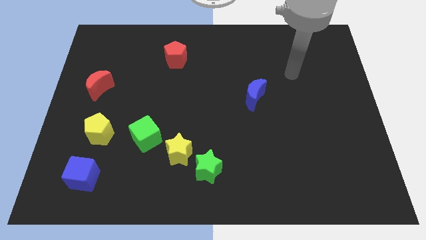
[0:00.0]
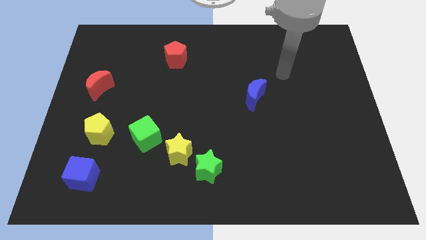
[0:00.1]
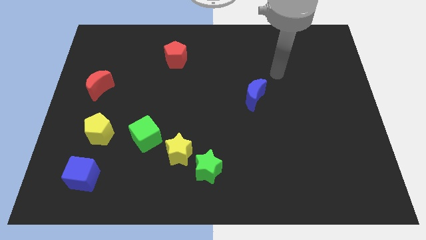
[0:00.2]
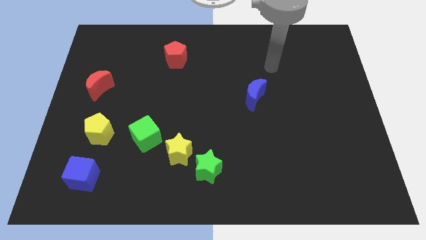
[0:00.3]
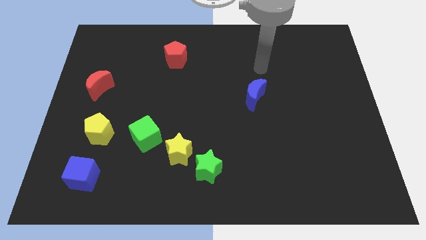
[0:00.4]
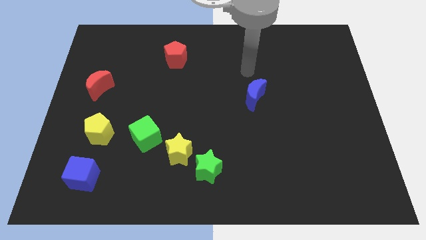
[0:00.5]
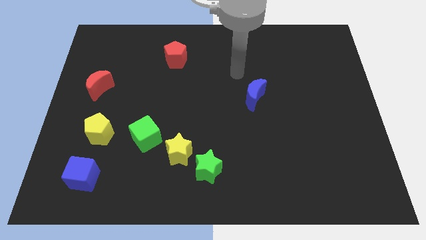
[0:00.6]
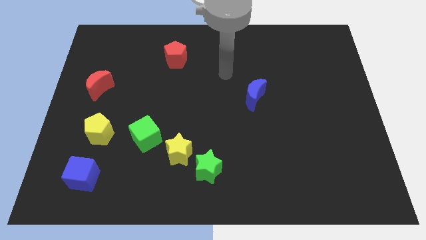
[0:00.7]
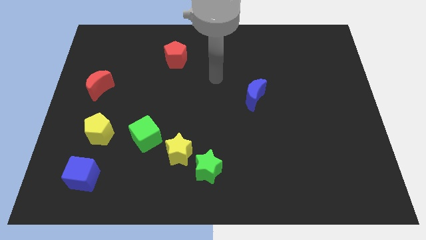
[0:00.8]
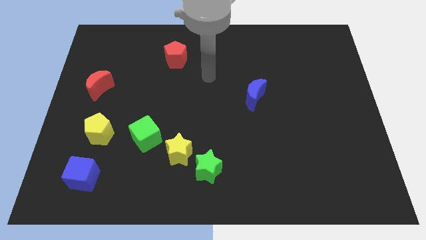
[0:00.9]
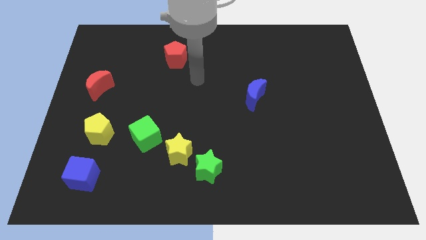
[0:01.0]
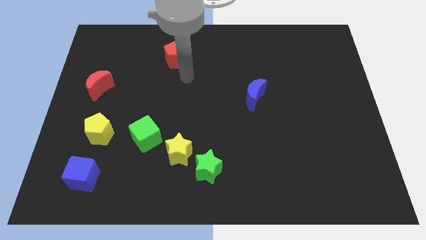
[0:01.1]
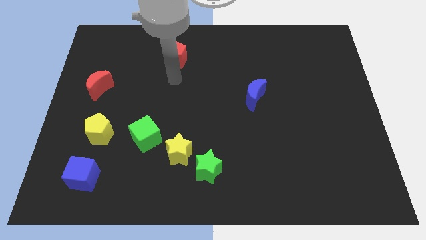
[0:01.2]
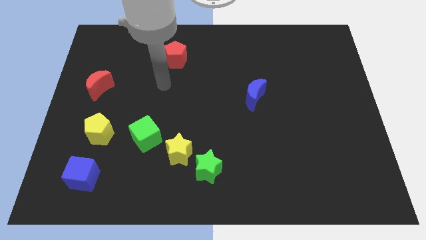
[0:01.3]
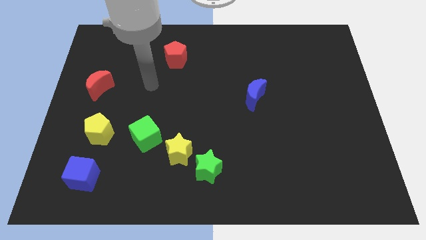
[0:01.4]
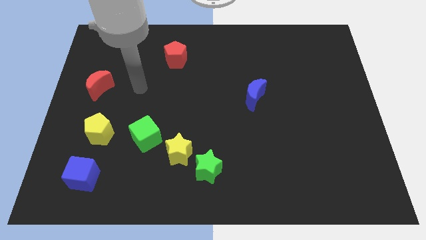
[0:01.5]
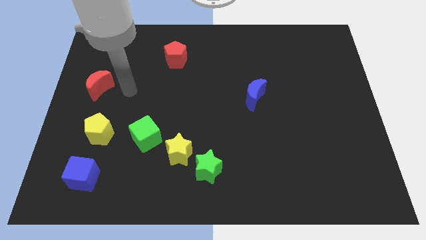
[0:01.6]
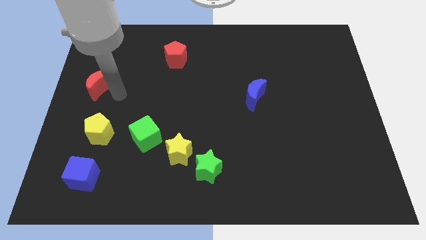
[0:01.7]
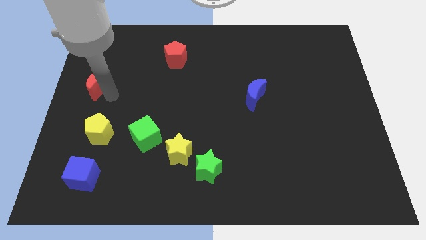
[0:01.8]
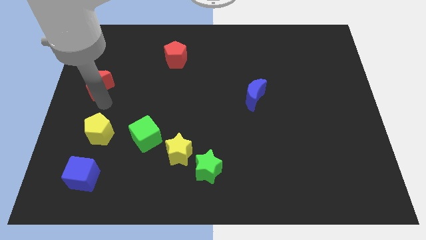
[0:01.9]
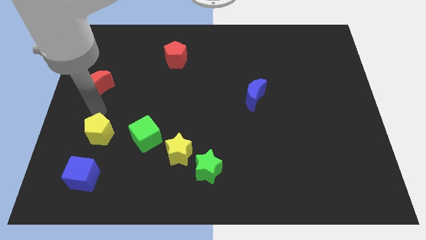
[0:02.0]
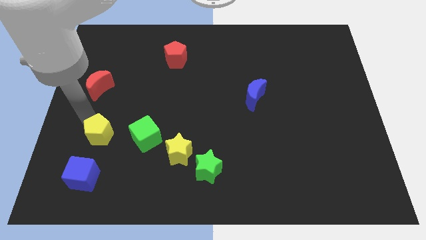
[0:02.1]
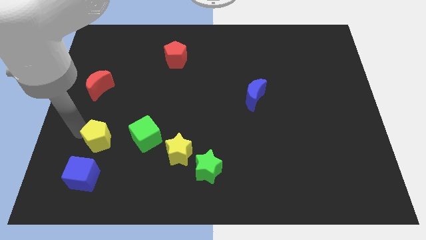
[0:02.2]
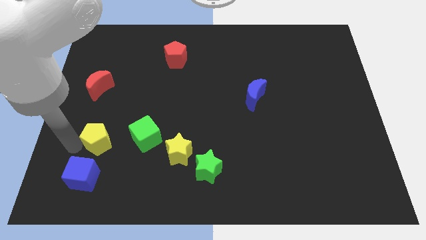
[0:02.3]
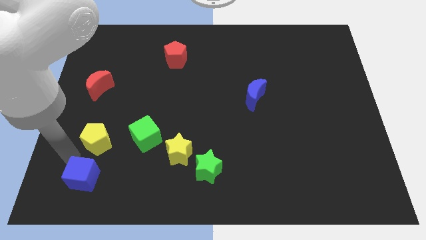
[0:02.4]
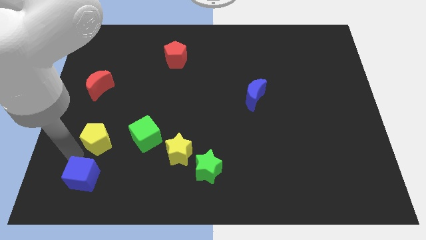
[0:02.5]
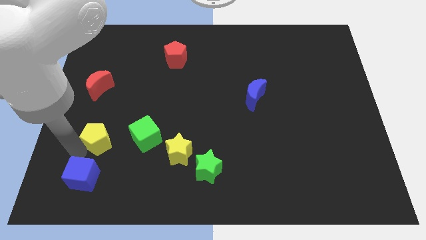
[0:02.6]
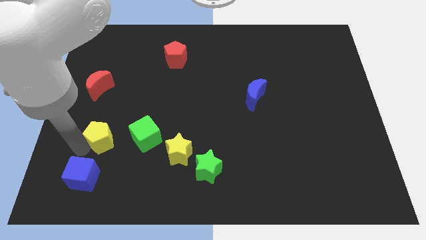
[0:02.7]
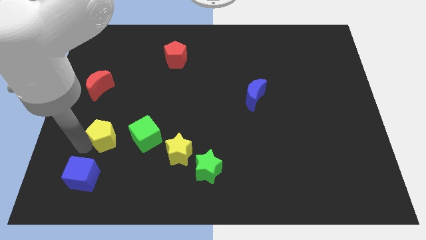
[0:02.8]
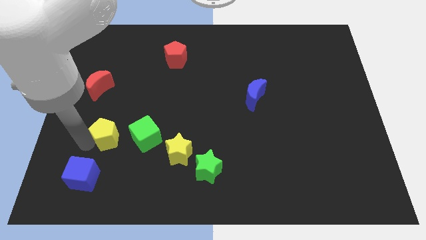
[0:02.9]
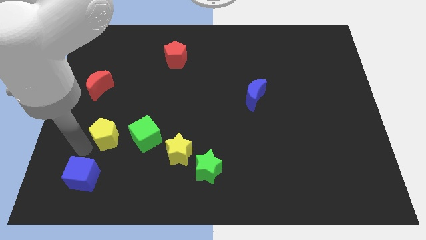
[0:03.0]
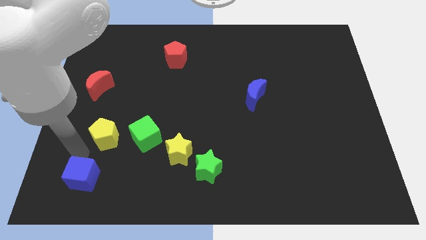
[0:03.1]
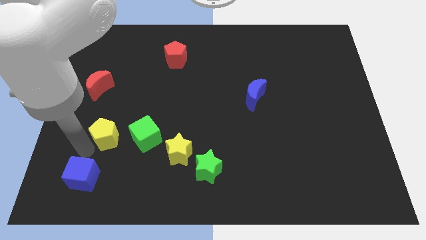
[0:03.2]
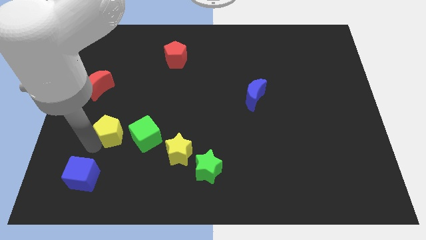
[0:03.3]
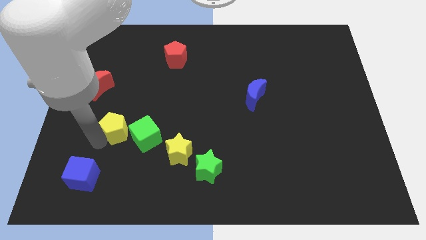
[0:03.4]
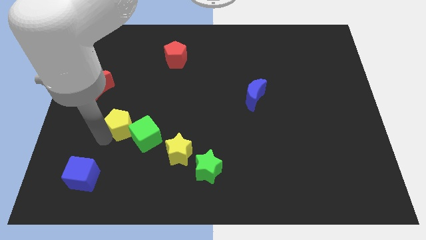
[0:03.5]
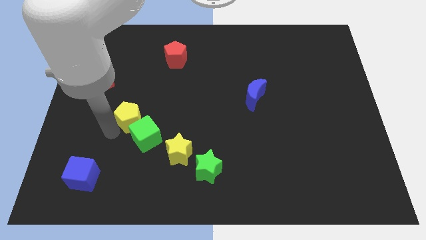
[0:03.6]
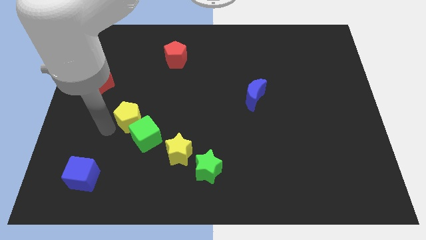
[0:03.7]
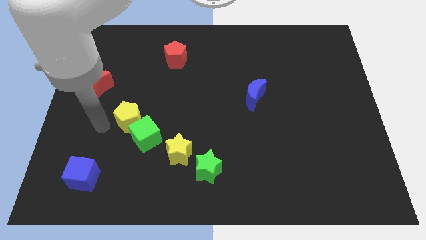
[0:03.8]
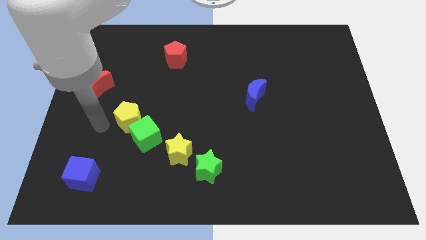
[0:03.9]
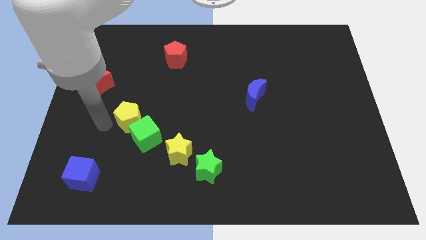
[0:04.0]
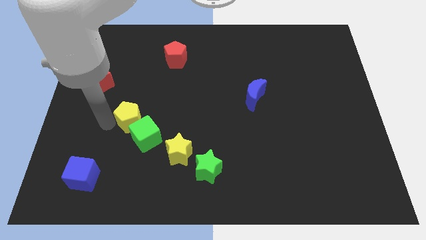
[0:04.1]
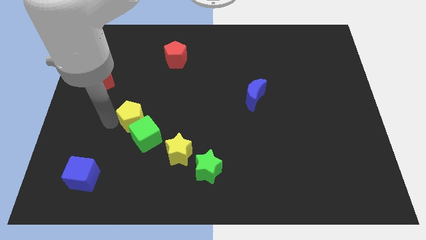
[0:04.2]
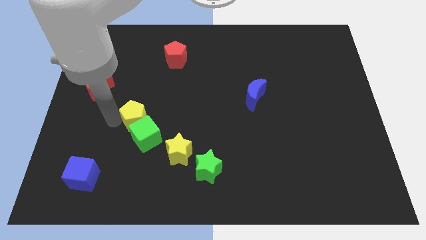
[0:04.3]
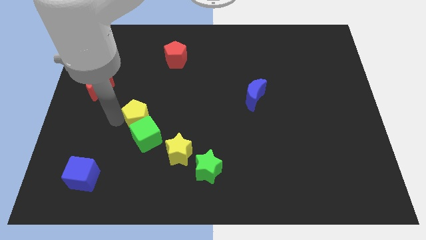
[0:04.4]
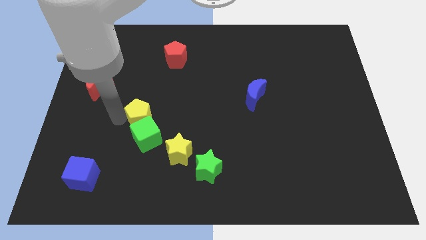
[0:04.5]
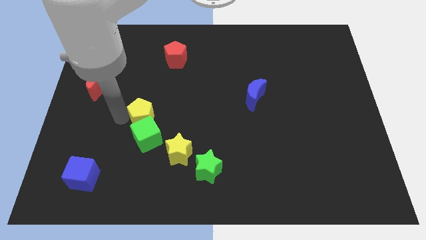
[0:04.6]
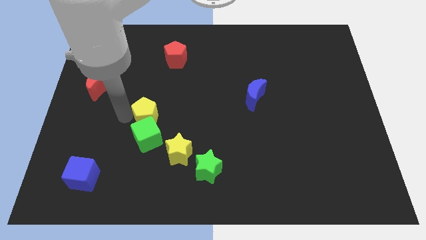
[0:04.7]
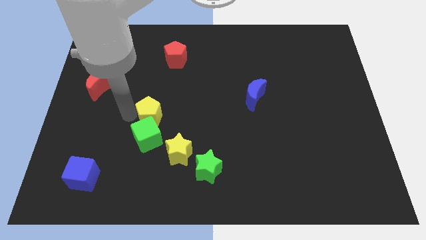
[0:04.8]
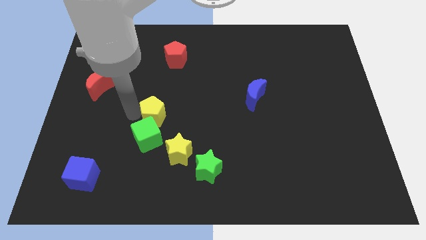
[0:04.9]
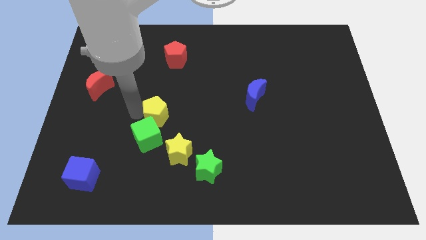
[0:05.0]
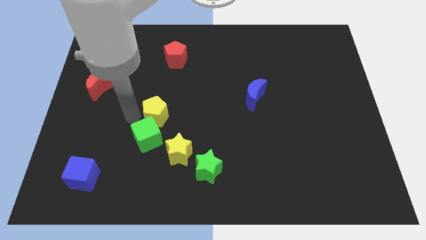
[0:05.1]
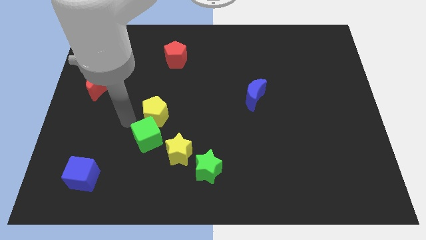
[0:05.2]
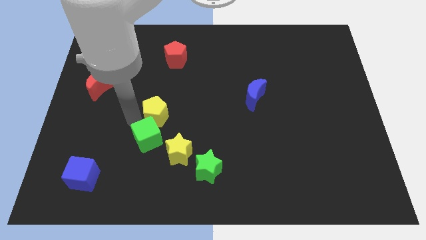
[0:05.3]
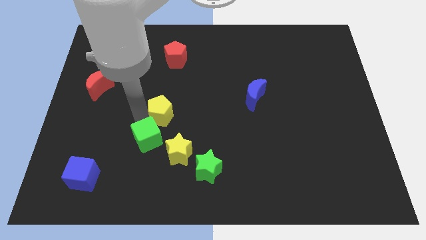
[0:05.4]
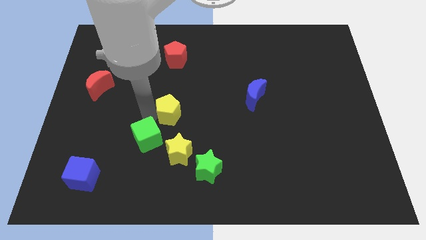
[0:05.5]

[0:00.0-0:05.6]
move the yellow pentagon to the middle

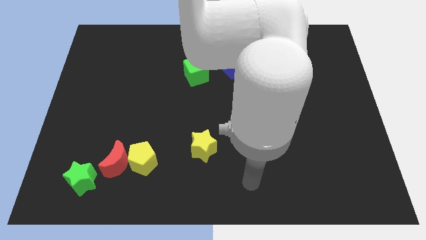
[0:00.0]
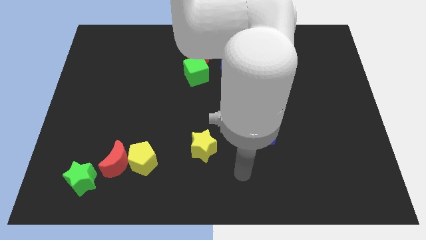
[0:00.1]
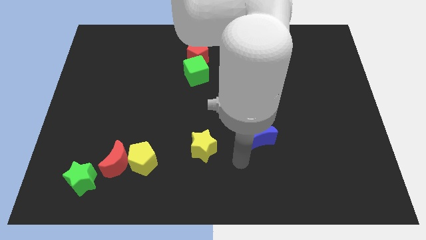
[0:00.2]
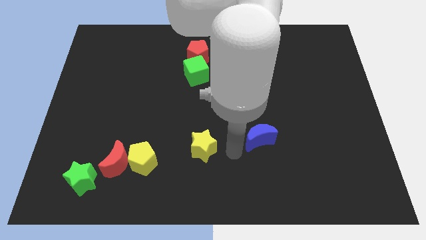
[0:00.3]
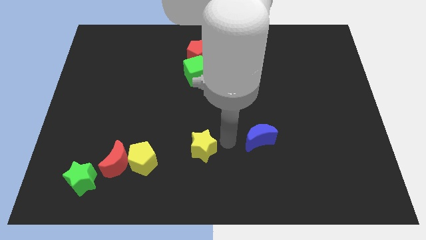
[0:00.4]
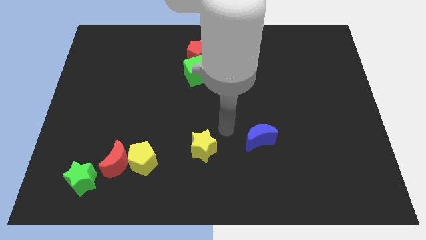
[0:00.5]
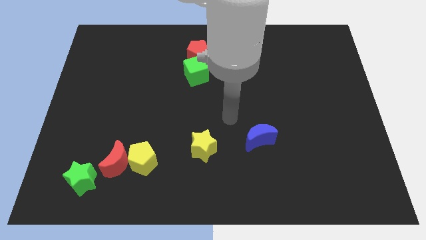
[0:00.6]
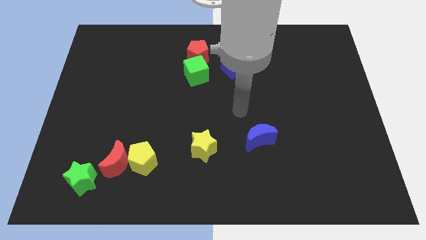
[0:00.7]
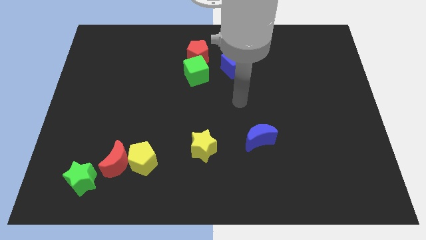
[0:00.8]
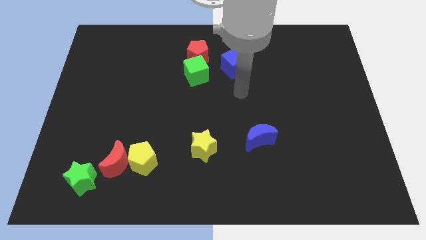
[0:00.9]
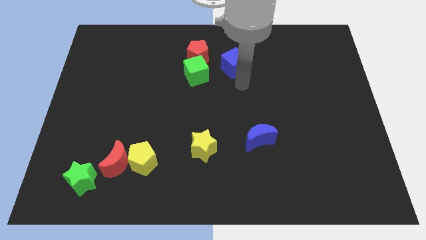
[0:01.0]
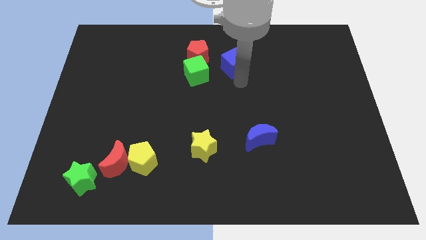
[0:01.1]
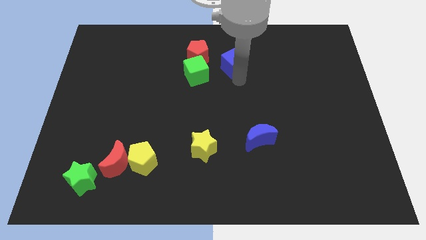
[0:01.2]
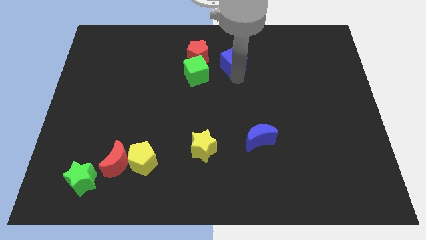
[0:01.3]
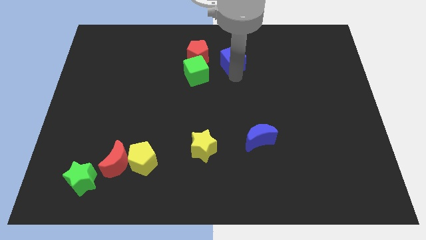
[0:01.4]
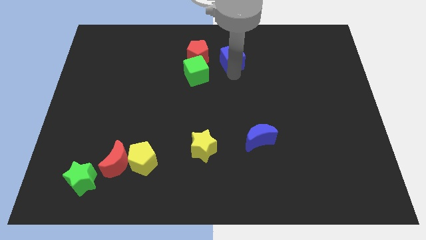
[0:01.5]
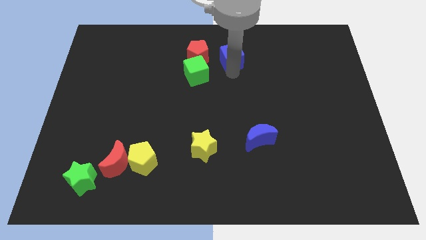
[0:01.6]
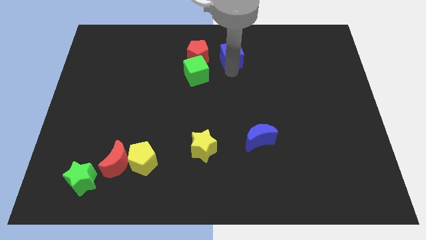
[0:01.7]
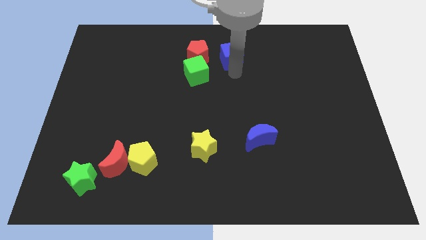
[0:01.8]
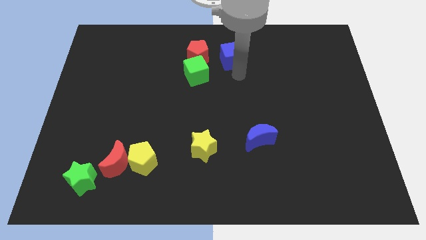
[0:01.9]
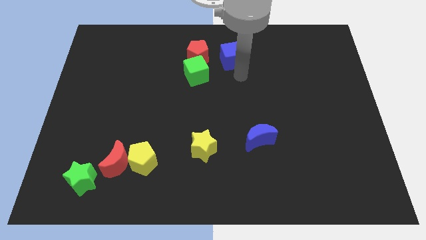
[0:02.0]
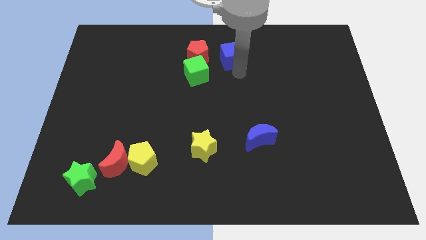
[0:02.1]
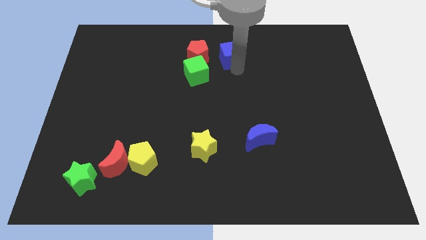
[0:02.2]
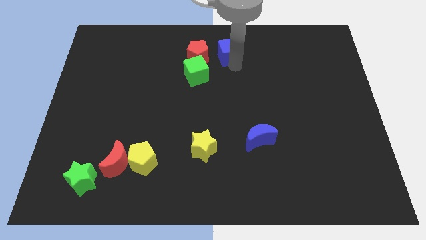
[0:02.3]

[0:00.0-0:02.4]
put the blue cube to the towards your base
